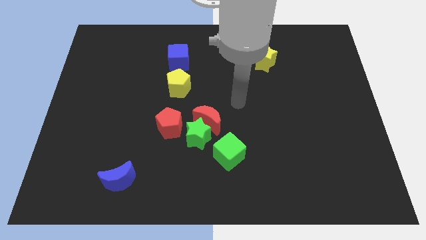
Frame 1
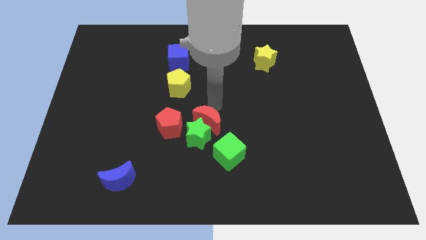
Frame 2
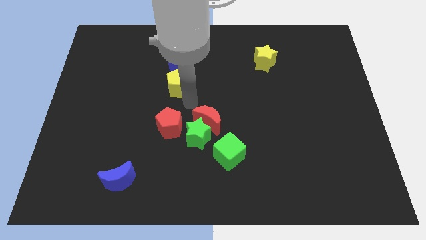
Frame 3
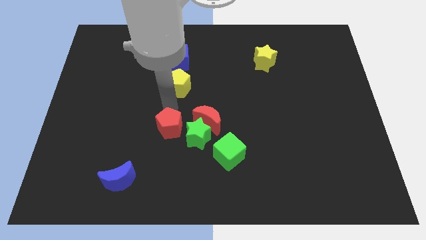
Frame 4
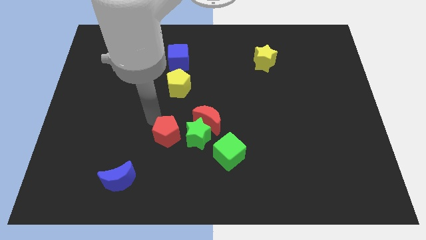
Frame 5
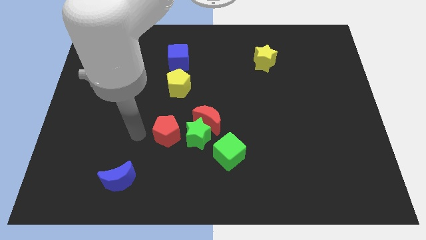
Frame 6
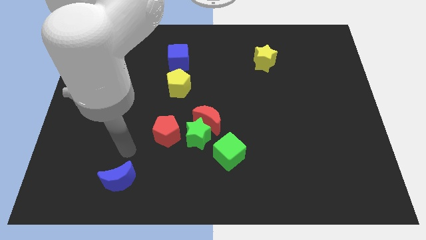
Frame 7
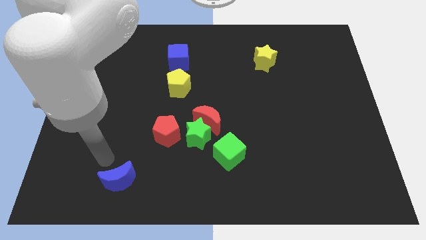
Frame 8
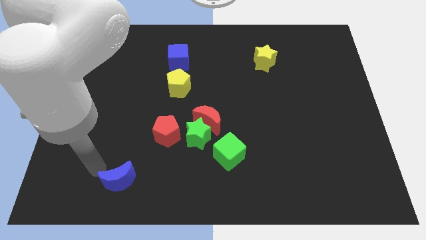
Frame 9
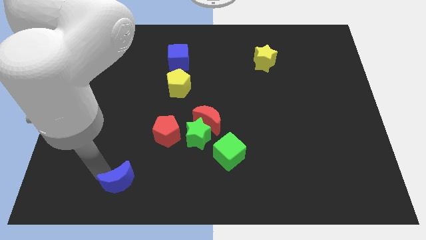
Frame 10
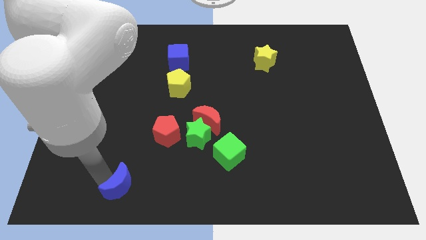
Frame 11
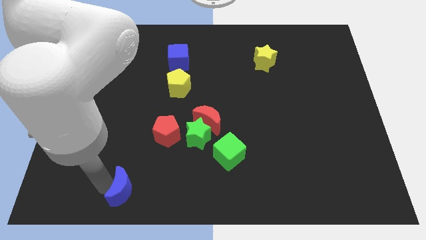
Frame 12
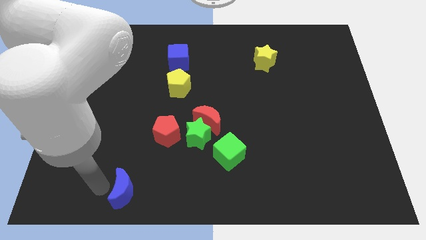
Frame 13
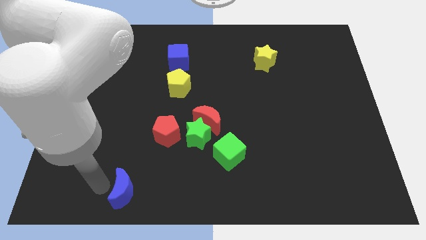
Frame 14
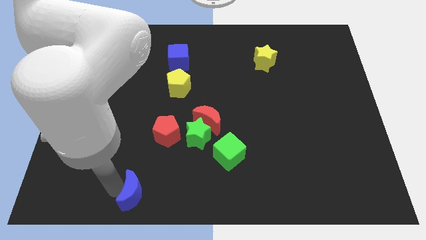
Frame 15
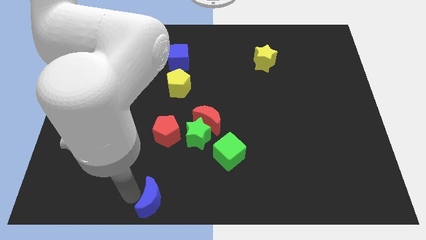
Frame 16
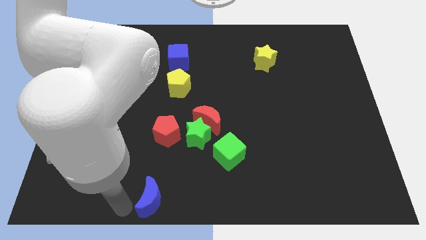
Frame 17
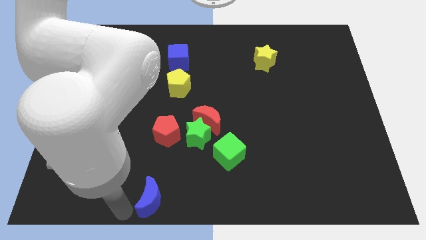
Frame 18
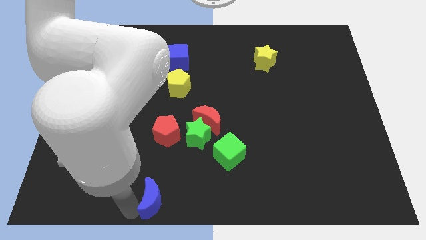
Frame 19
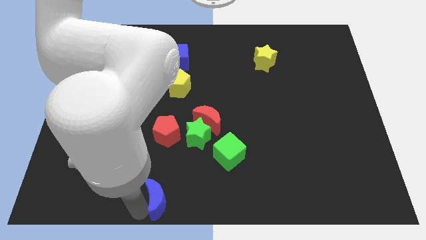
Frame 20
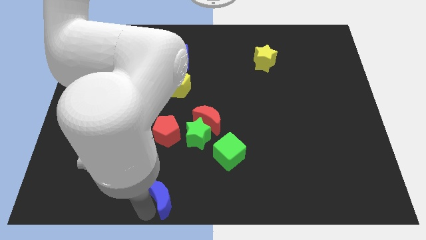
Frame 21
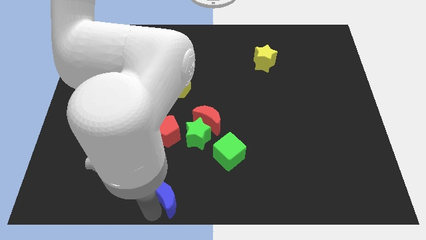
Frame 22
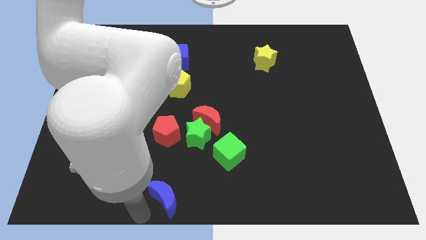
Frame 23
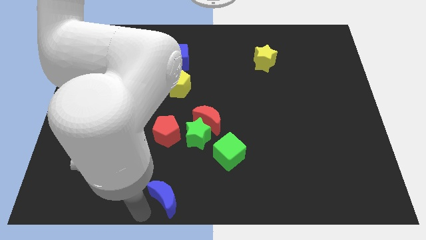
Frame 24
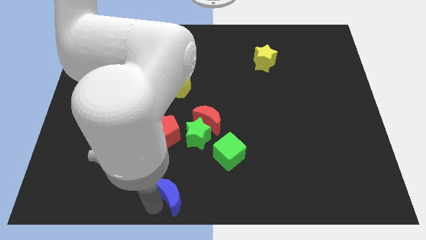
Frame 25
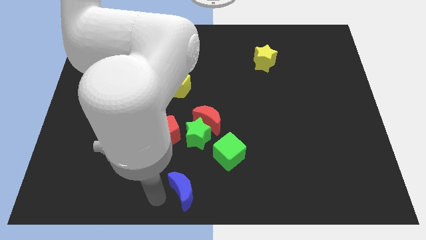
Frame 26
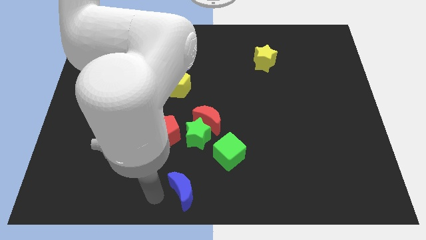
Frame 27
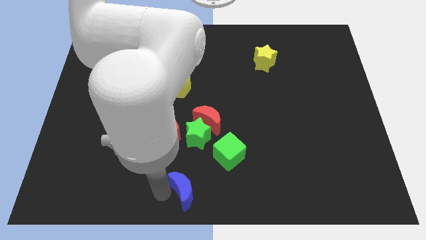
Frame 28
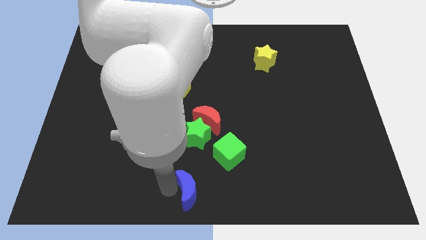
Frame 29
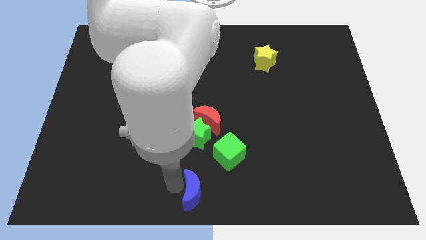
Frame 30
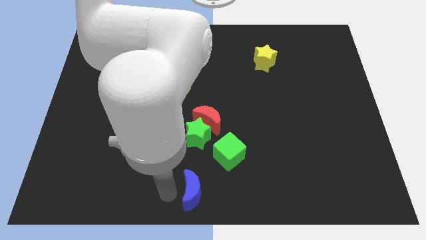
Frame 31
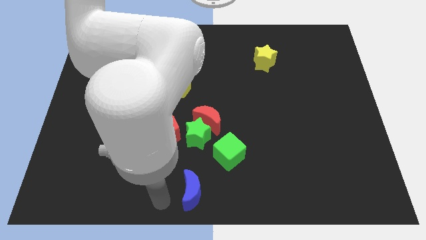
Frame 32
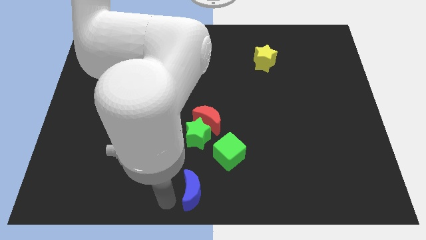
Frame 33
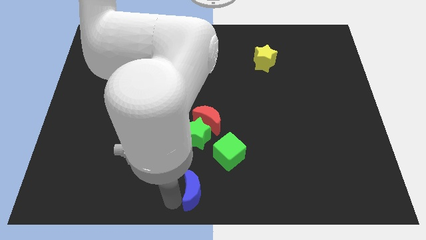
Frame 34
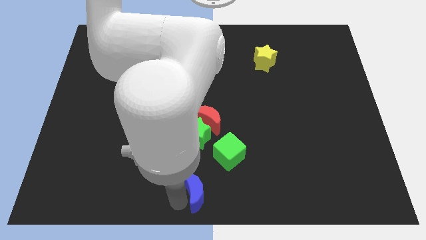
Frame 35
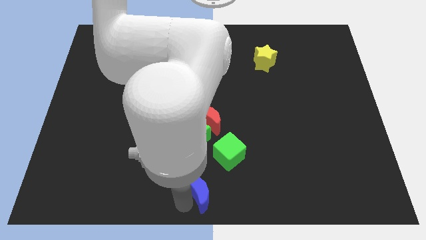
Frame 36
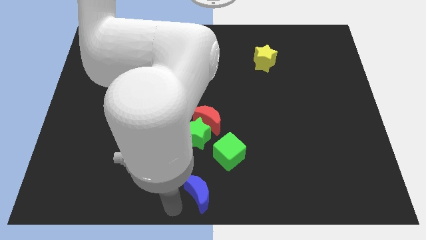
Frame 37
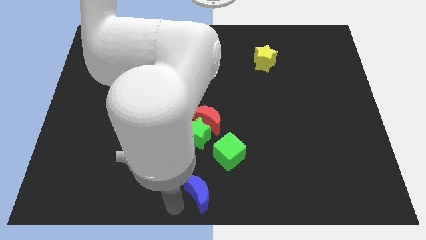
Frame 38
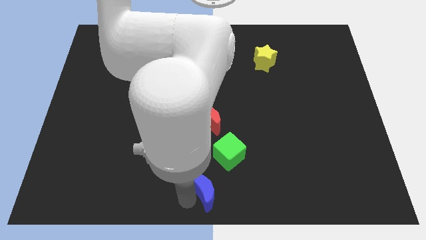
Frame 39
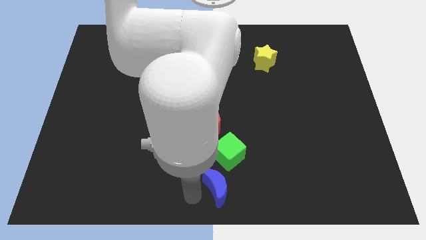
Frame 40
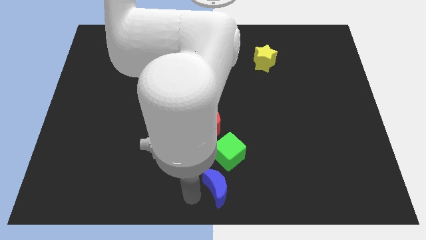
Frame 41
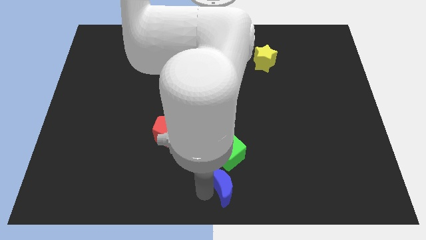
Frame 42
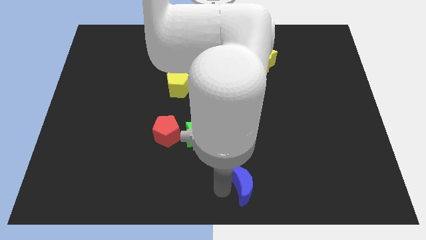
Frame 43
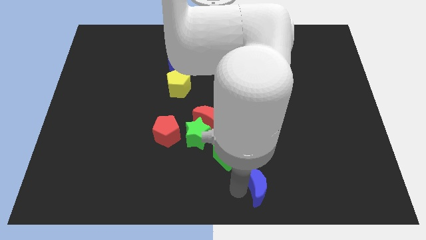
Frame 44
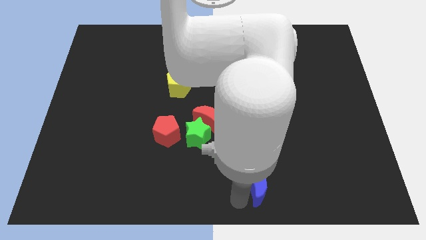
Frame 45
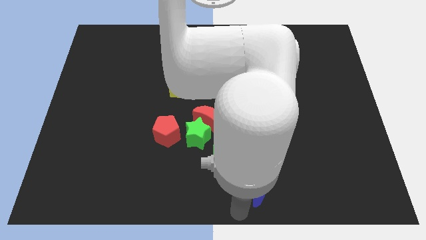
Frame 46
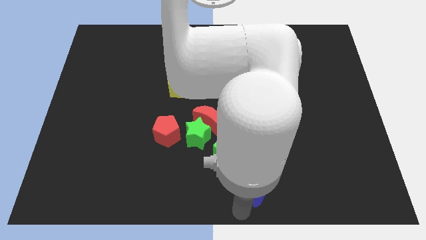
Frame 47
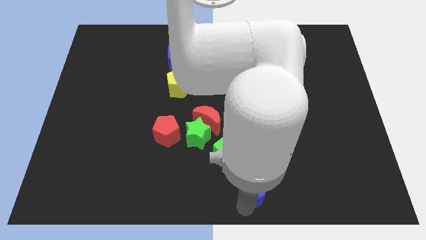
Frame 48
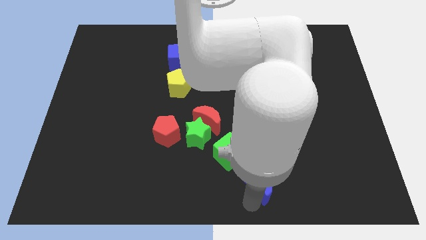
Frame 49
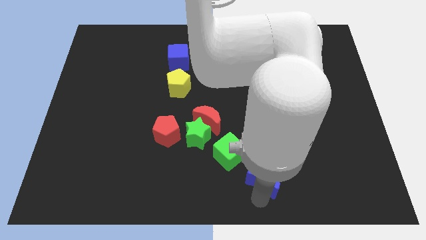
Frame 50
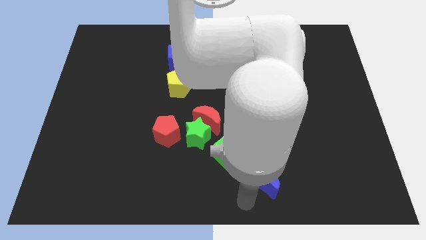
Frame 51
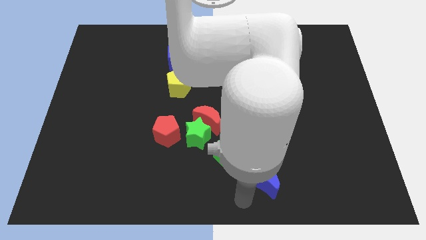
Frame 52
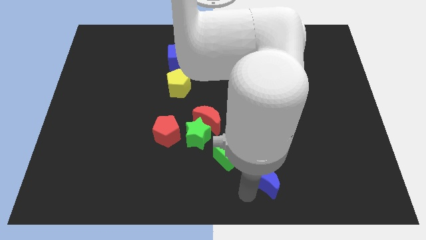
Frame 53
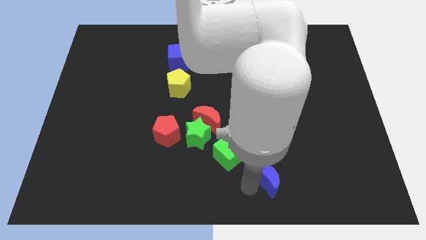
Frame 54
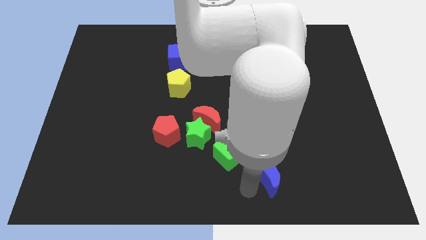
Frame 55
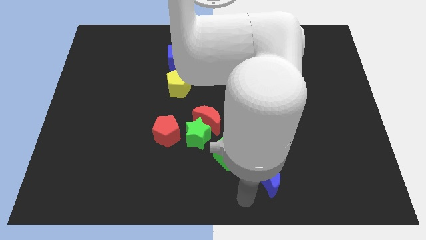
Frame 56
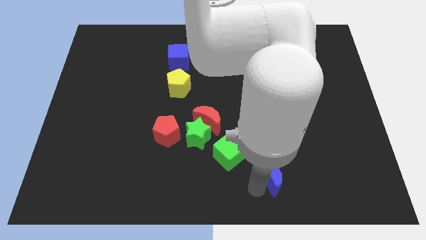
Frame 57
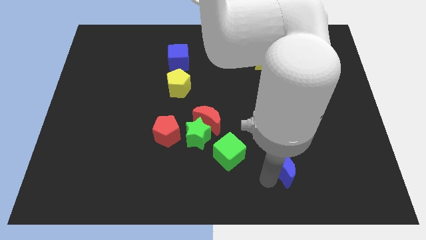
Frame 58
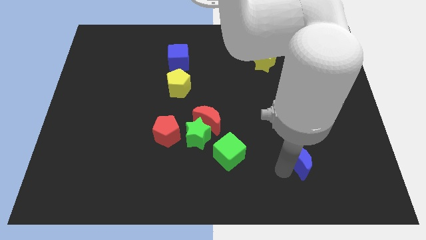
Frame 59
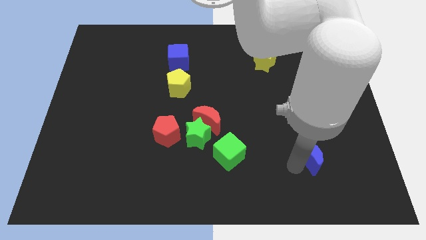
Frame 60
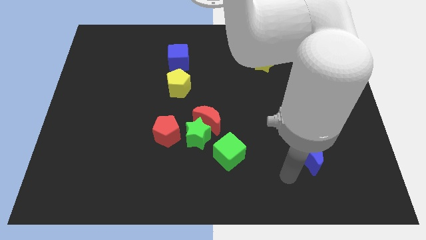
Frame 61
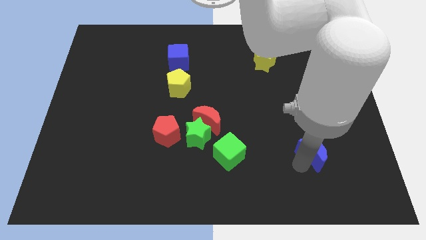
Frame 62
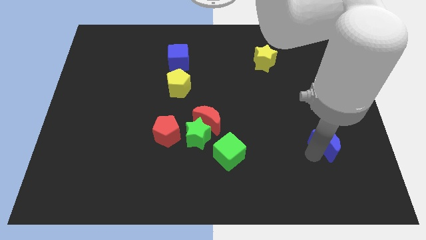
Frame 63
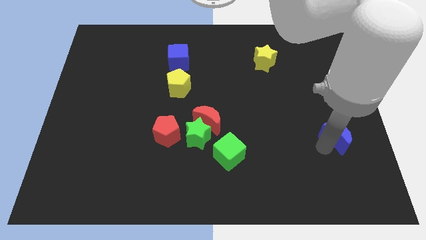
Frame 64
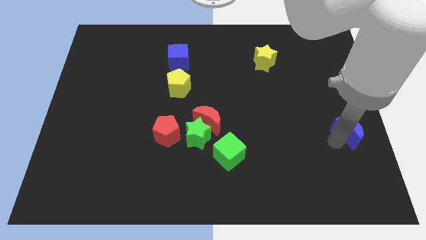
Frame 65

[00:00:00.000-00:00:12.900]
put the blue moon to the center right
